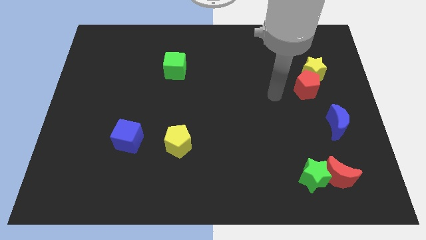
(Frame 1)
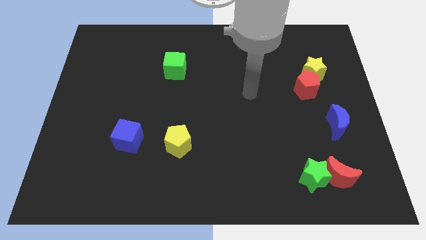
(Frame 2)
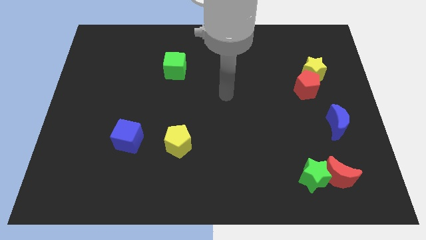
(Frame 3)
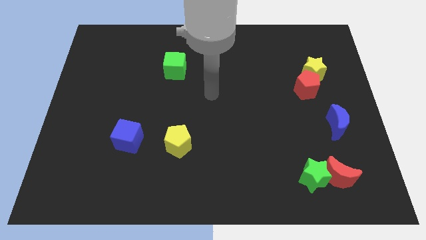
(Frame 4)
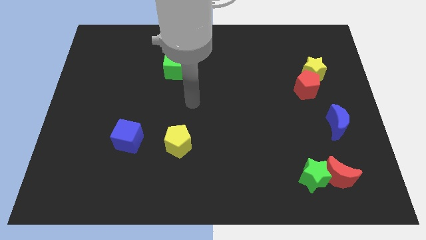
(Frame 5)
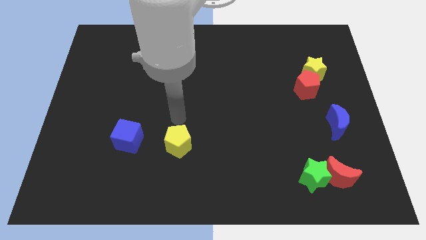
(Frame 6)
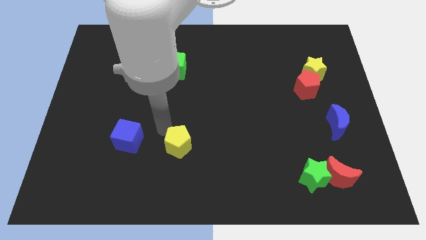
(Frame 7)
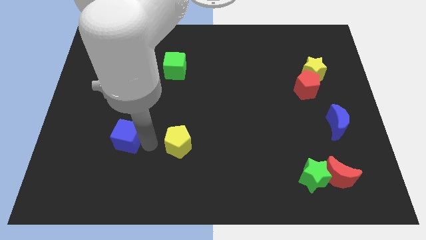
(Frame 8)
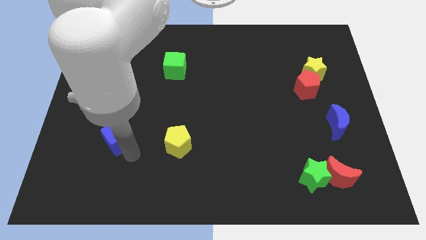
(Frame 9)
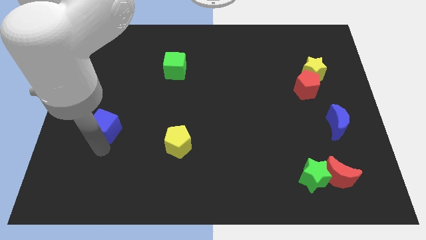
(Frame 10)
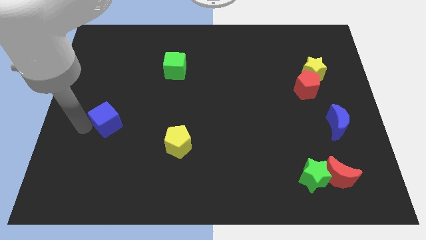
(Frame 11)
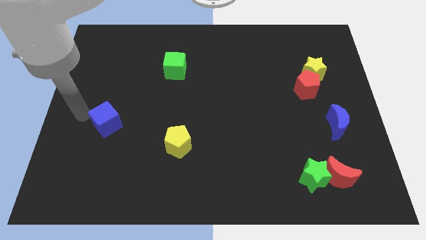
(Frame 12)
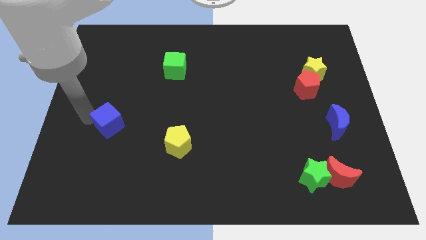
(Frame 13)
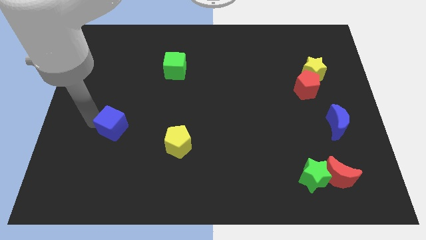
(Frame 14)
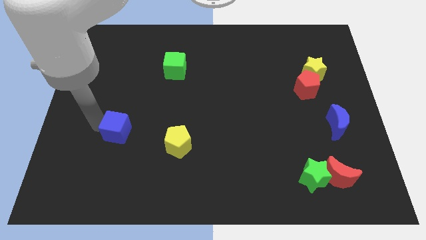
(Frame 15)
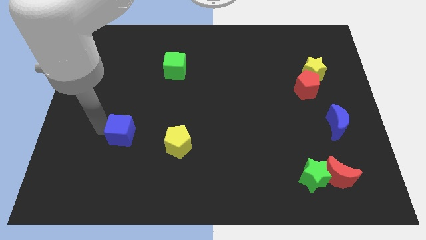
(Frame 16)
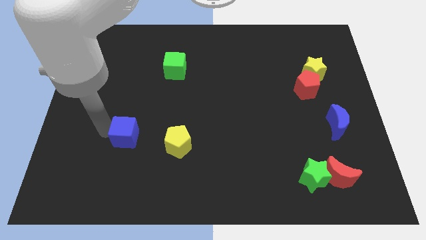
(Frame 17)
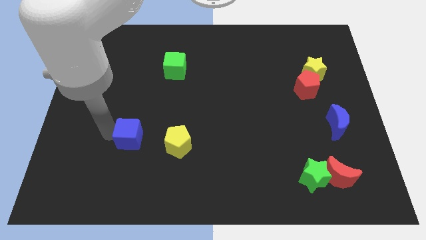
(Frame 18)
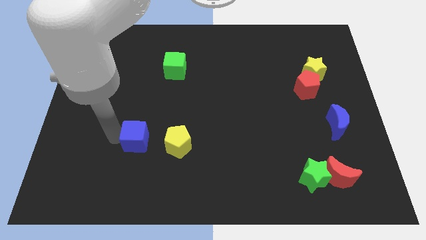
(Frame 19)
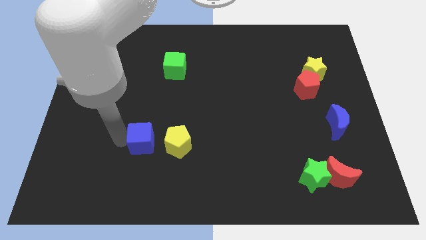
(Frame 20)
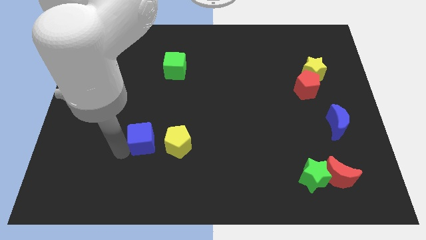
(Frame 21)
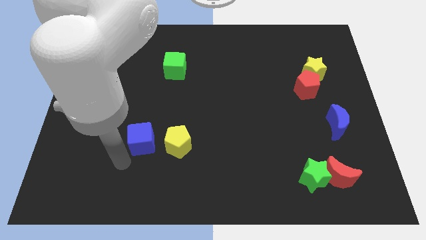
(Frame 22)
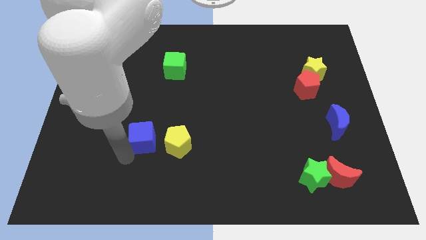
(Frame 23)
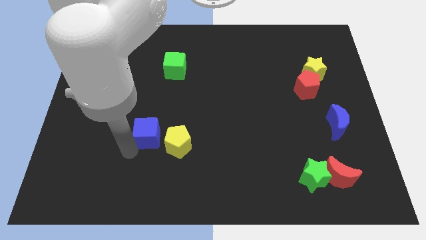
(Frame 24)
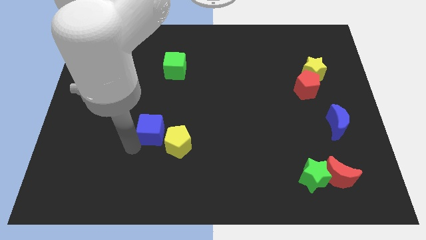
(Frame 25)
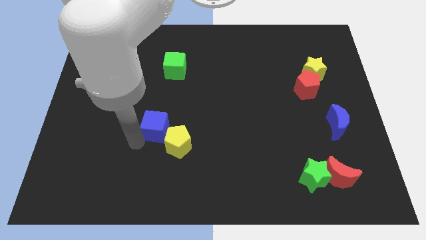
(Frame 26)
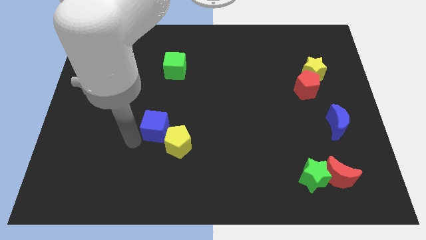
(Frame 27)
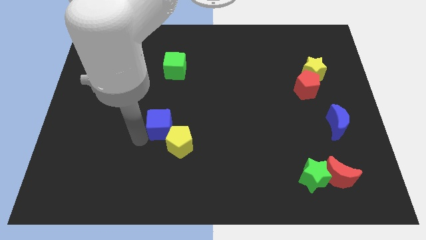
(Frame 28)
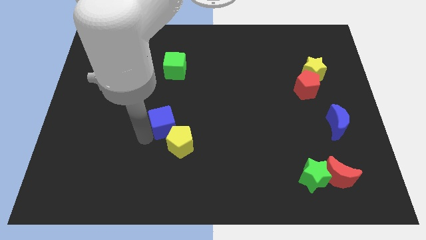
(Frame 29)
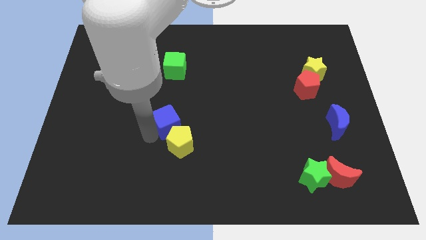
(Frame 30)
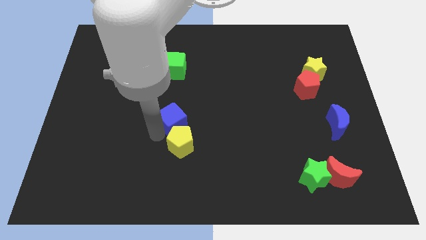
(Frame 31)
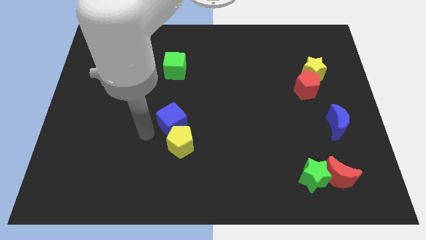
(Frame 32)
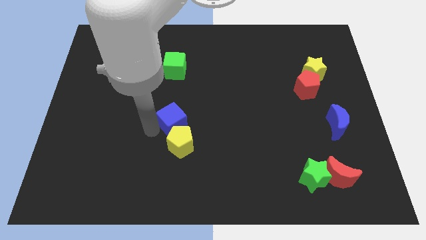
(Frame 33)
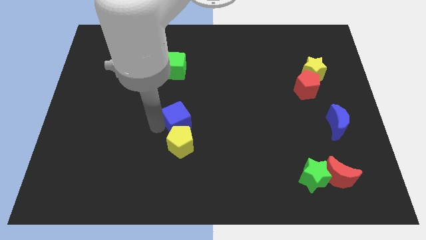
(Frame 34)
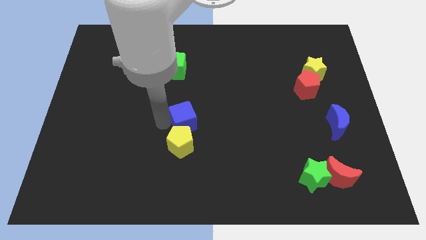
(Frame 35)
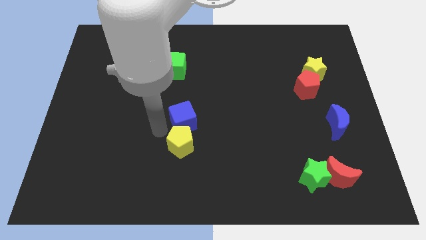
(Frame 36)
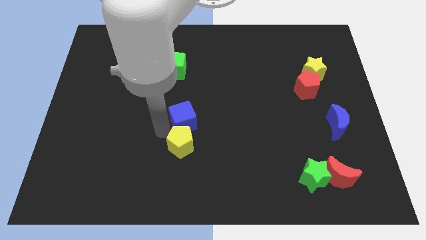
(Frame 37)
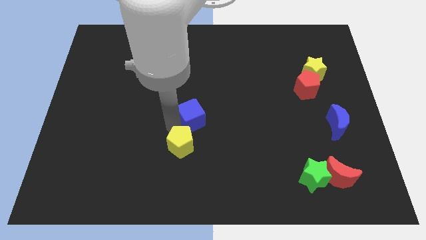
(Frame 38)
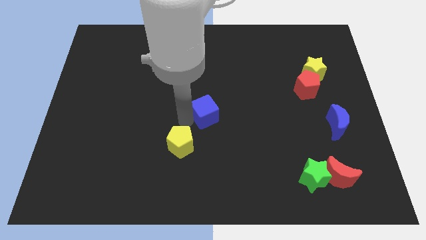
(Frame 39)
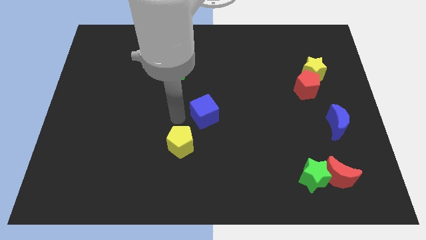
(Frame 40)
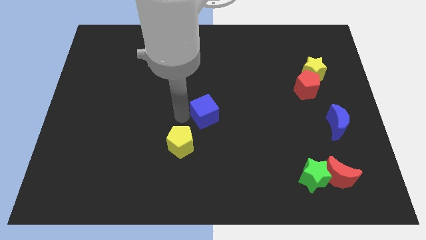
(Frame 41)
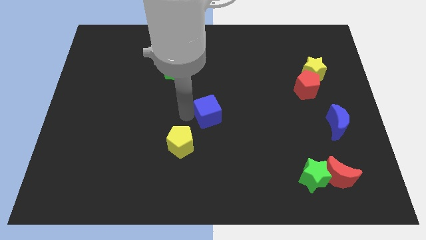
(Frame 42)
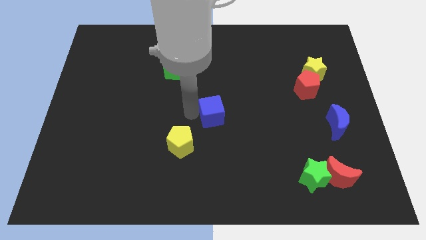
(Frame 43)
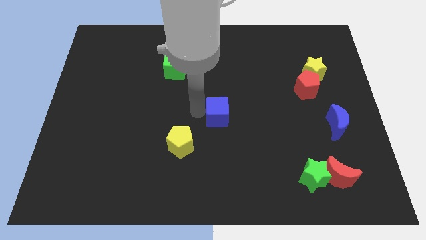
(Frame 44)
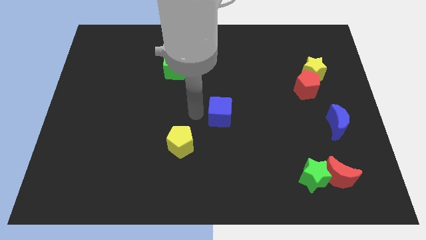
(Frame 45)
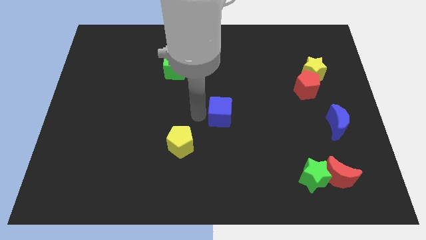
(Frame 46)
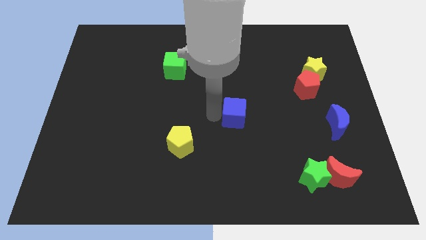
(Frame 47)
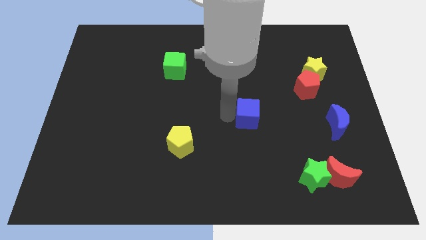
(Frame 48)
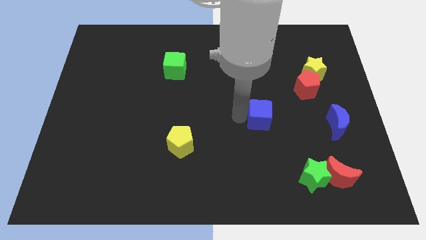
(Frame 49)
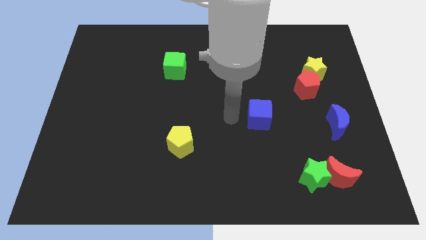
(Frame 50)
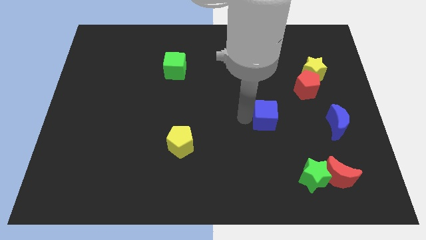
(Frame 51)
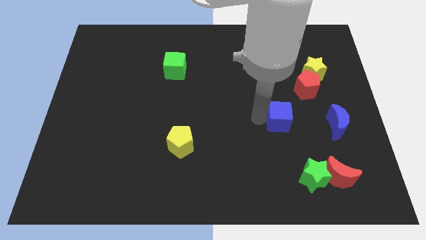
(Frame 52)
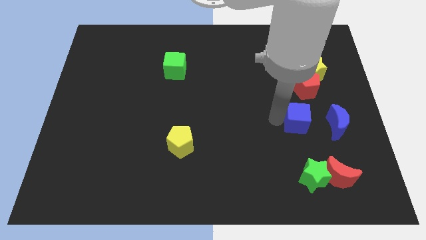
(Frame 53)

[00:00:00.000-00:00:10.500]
slide the blue cube below the red pentagon

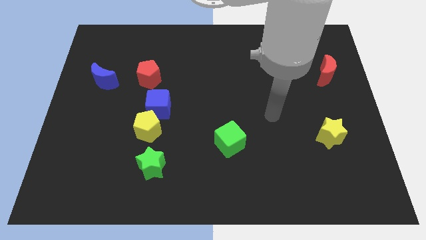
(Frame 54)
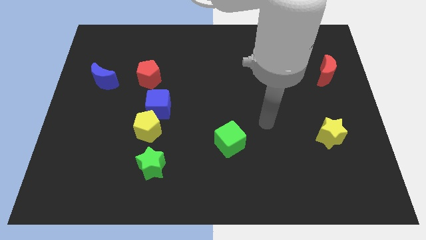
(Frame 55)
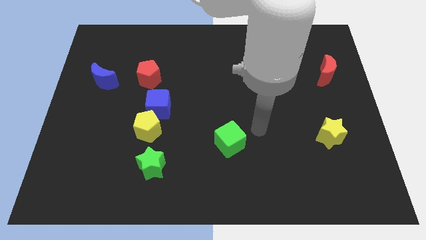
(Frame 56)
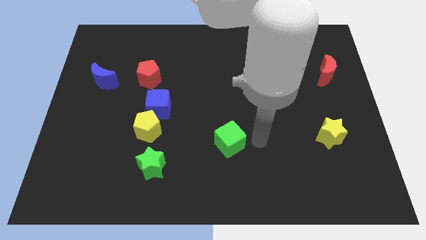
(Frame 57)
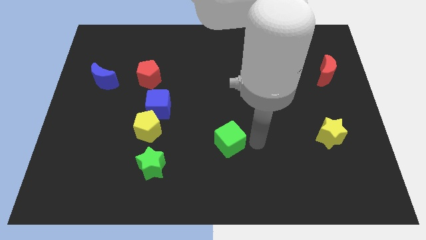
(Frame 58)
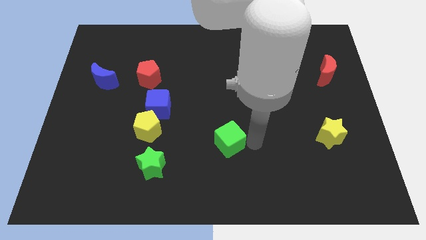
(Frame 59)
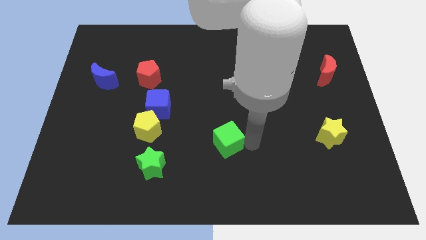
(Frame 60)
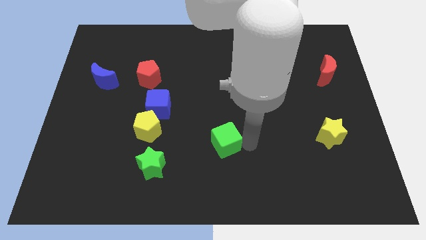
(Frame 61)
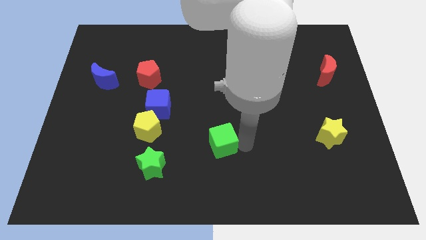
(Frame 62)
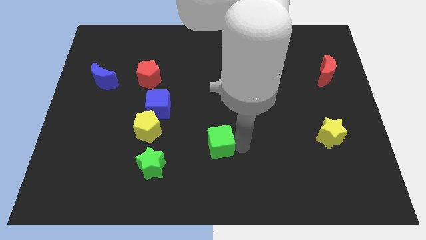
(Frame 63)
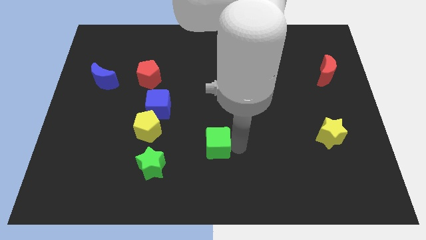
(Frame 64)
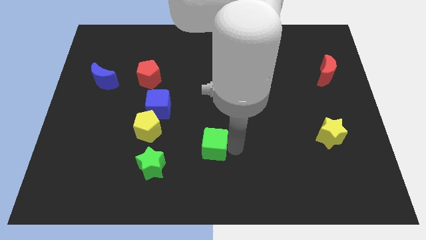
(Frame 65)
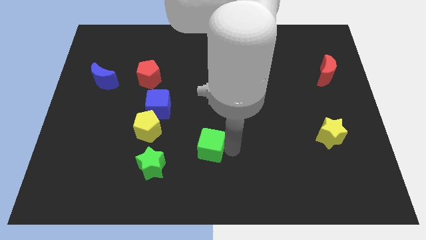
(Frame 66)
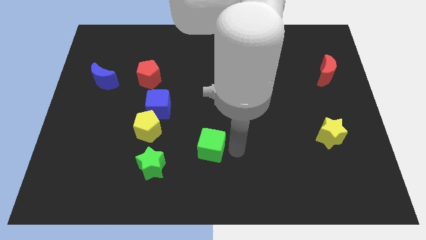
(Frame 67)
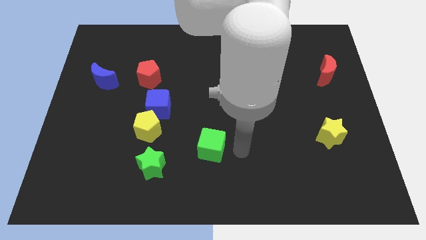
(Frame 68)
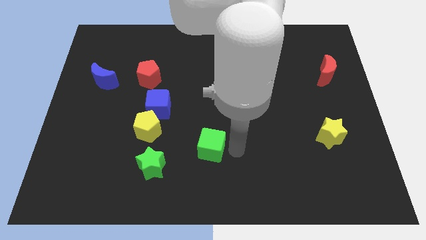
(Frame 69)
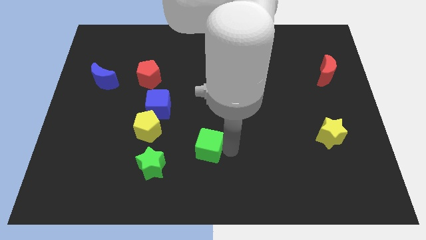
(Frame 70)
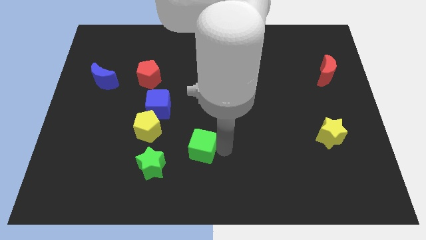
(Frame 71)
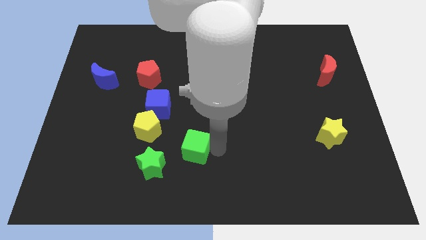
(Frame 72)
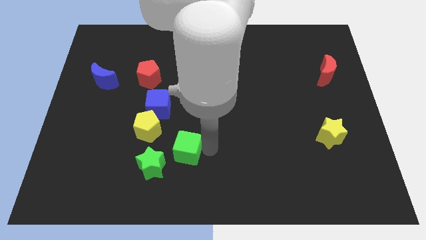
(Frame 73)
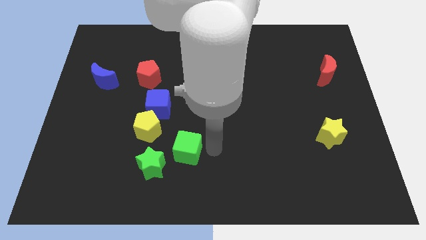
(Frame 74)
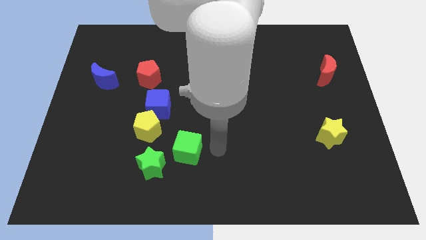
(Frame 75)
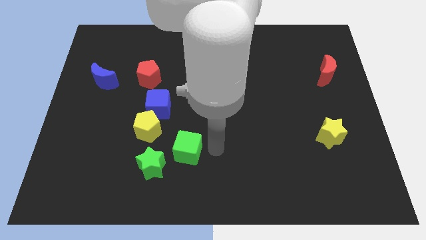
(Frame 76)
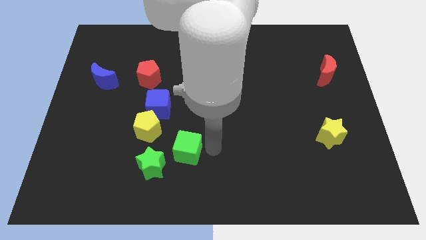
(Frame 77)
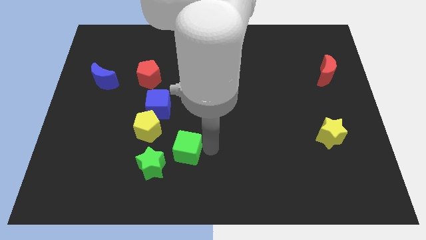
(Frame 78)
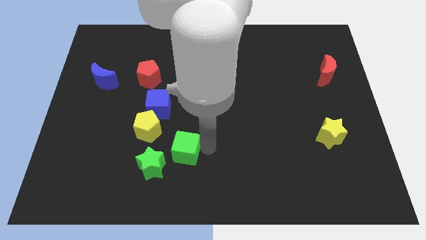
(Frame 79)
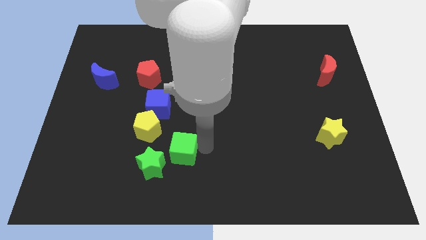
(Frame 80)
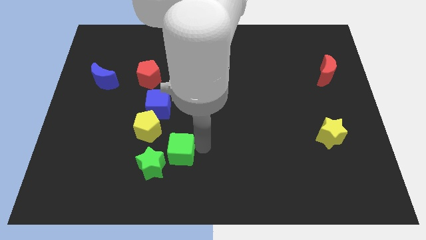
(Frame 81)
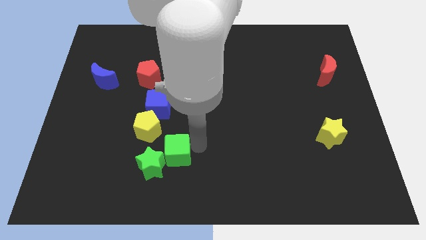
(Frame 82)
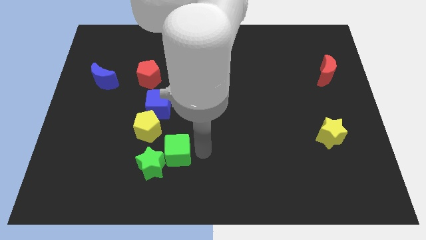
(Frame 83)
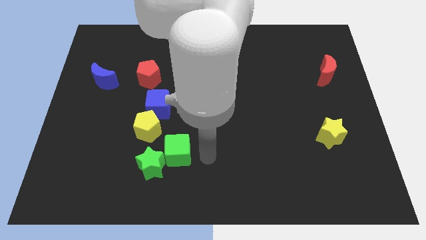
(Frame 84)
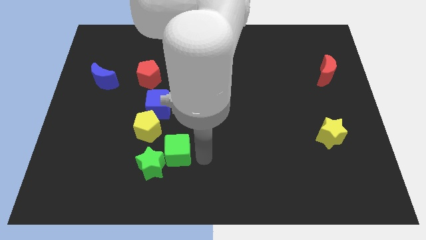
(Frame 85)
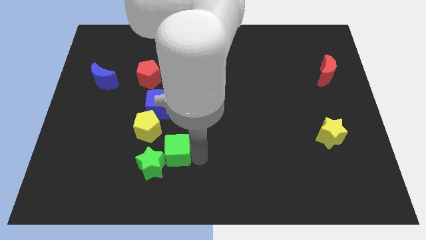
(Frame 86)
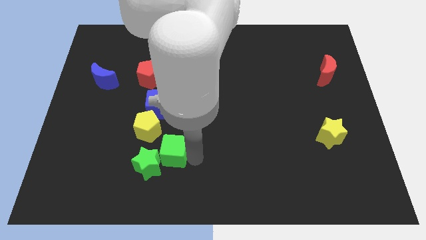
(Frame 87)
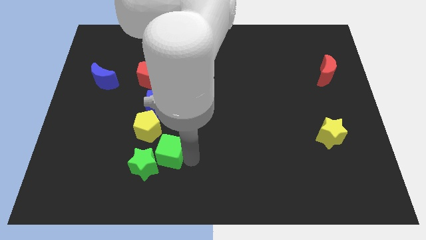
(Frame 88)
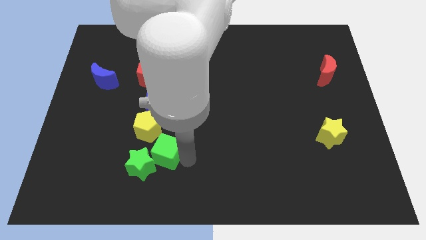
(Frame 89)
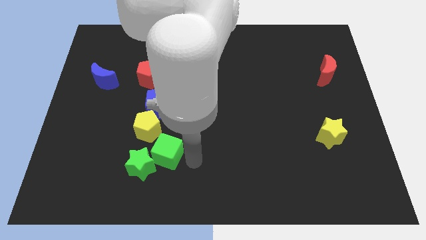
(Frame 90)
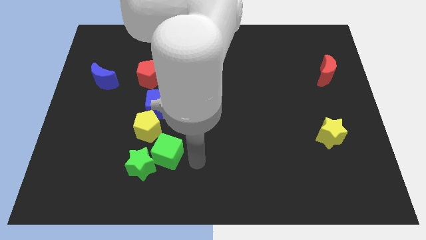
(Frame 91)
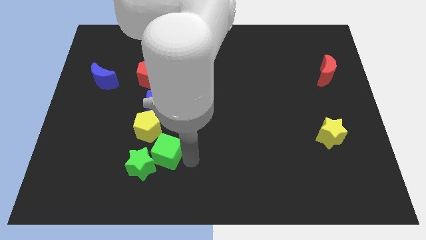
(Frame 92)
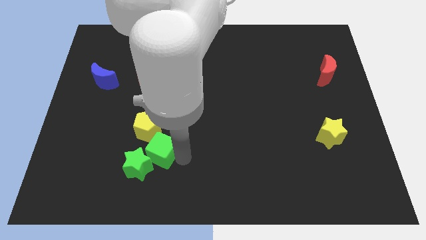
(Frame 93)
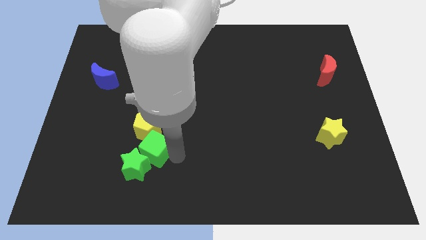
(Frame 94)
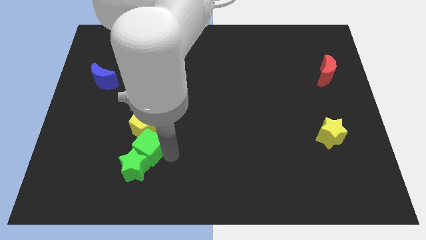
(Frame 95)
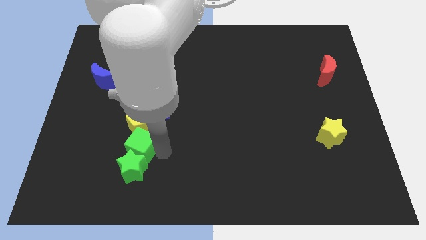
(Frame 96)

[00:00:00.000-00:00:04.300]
push the green cube to the bottom left of the yellow pentagon
